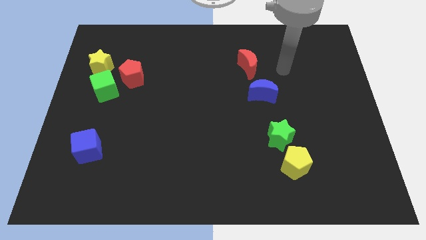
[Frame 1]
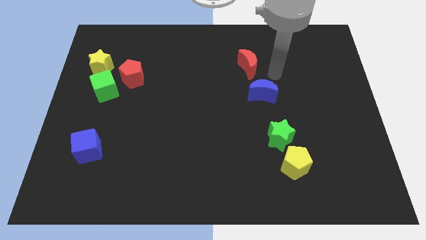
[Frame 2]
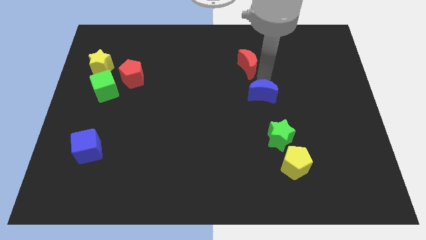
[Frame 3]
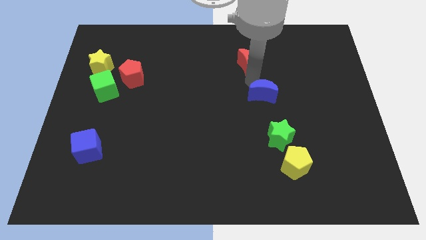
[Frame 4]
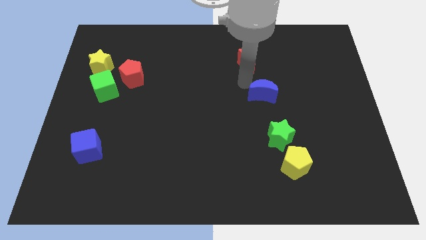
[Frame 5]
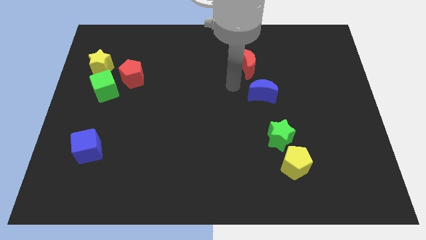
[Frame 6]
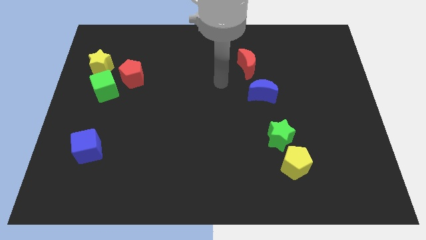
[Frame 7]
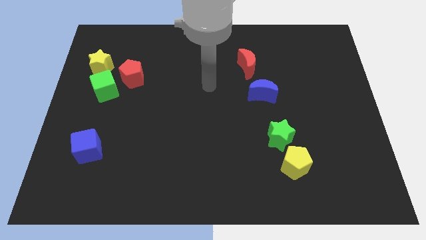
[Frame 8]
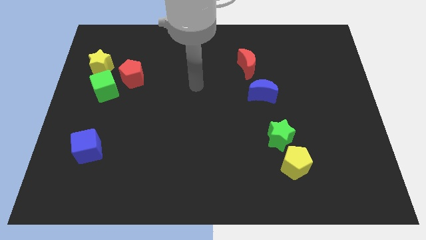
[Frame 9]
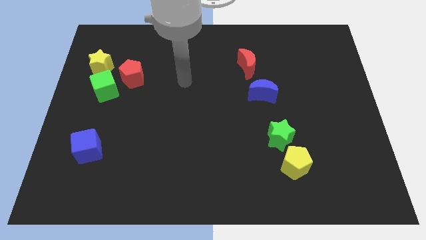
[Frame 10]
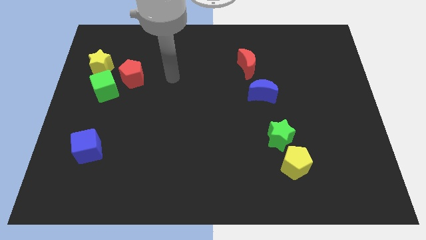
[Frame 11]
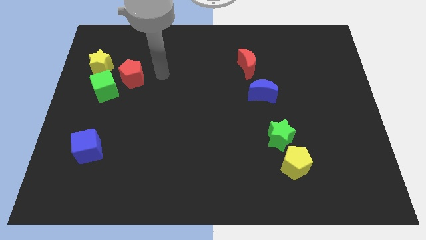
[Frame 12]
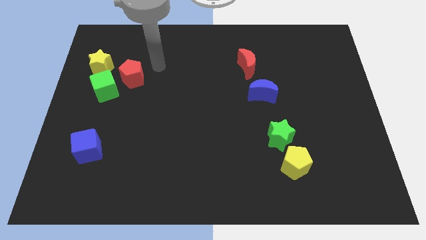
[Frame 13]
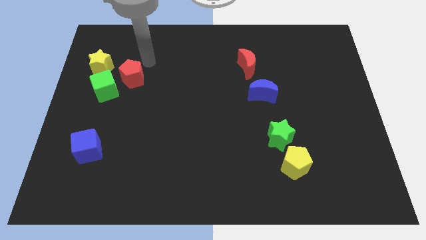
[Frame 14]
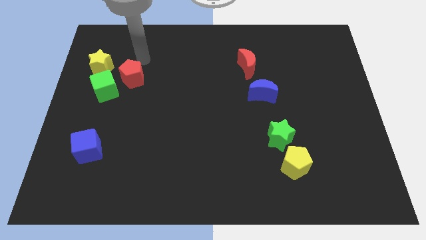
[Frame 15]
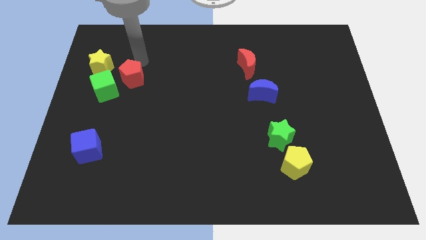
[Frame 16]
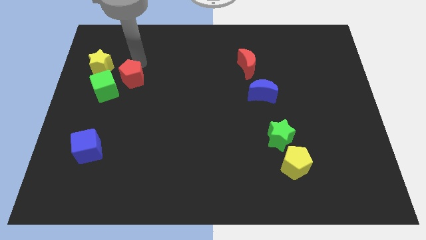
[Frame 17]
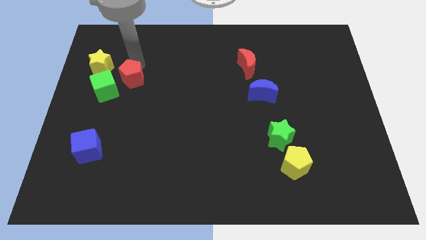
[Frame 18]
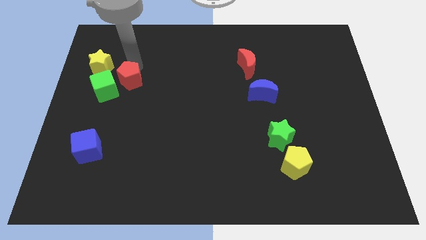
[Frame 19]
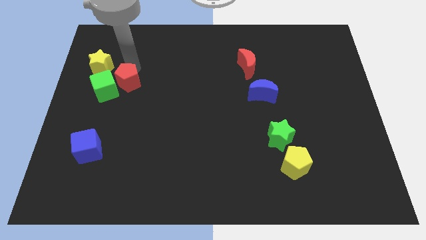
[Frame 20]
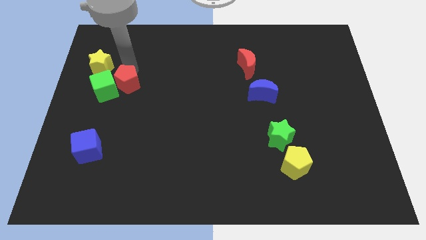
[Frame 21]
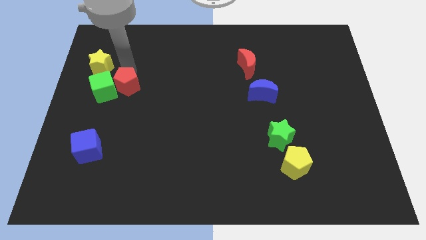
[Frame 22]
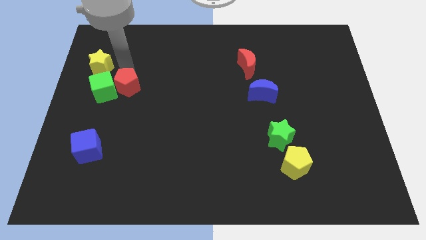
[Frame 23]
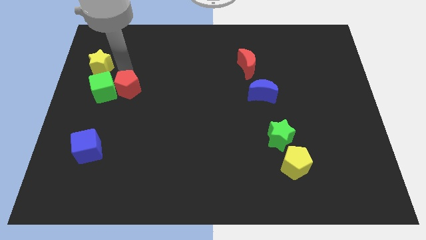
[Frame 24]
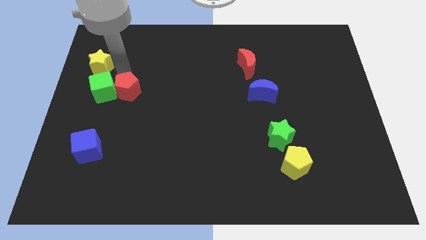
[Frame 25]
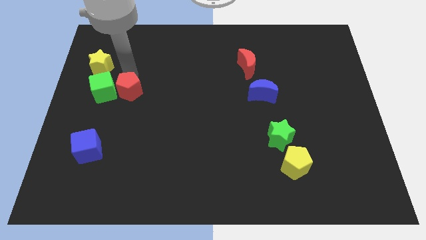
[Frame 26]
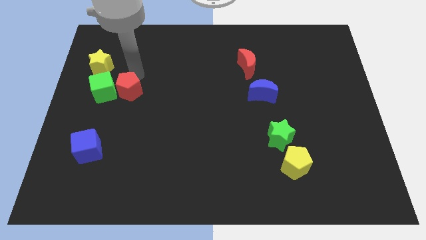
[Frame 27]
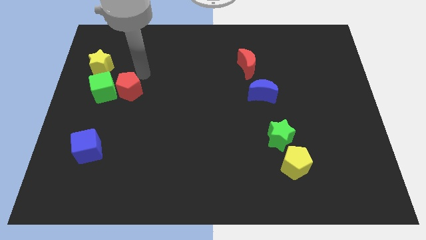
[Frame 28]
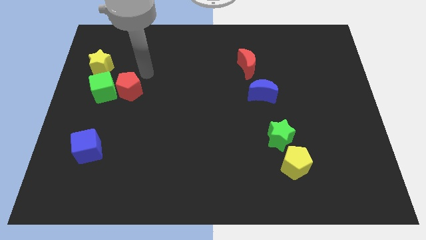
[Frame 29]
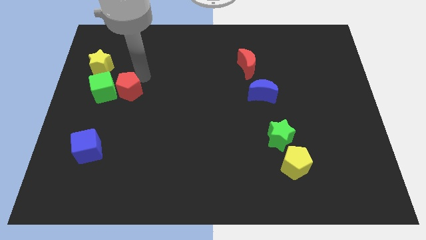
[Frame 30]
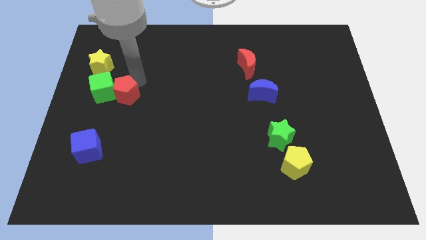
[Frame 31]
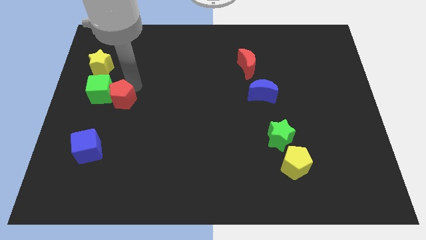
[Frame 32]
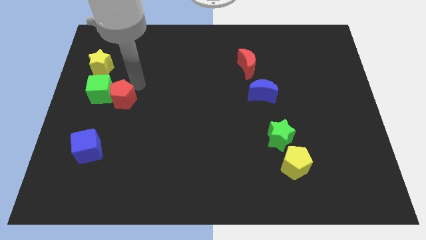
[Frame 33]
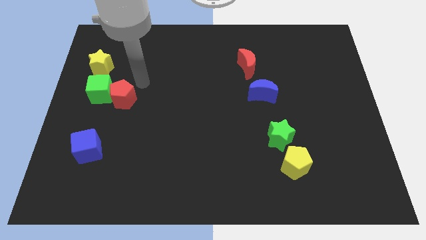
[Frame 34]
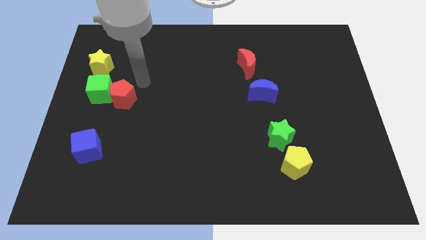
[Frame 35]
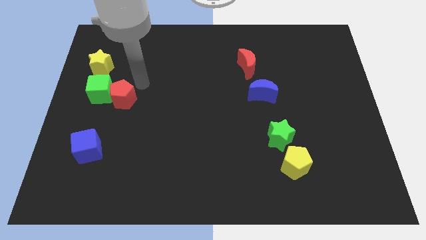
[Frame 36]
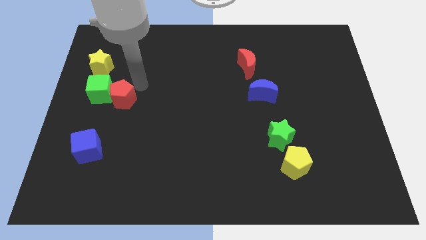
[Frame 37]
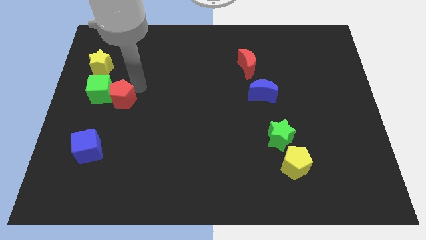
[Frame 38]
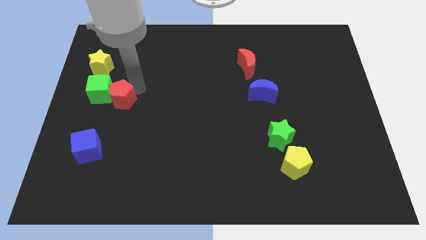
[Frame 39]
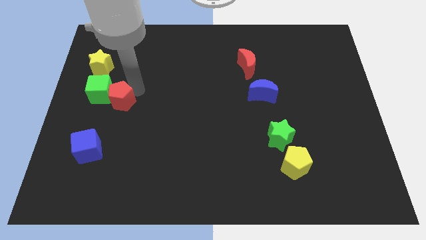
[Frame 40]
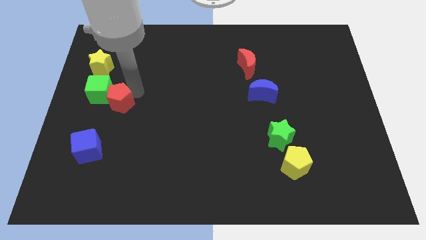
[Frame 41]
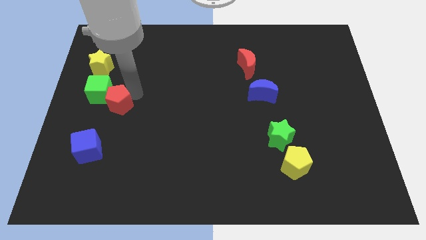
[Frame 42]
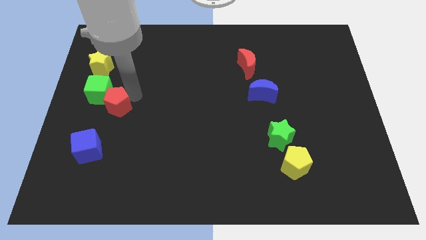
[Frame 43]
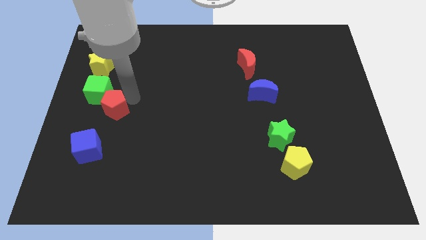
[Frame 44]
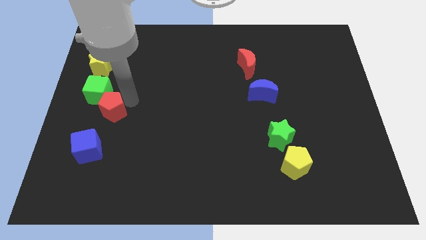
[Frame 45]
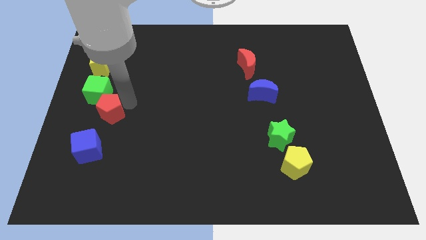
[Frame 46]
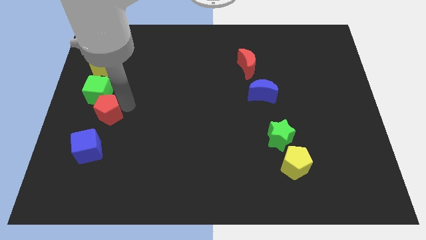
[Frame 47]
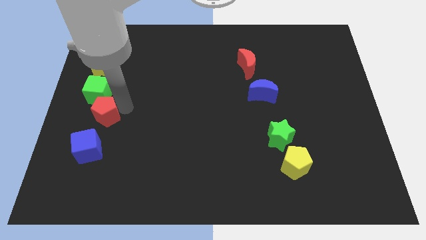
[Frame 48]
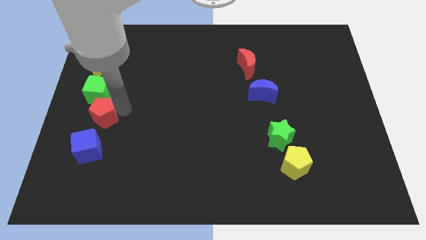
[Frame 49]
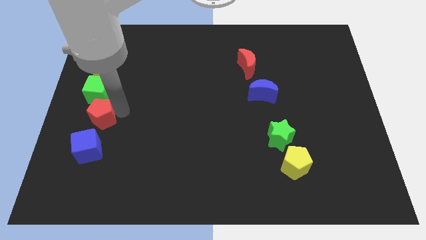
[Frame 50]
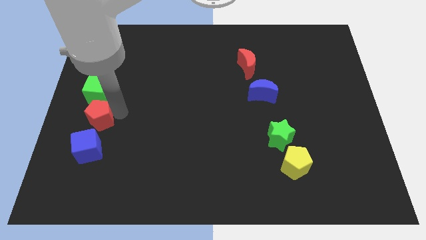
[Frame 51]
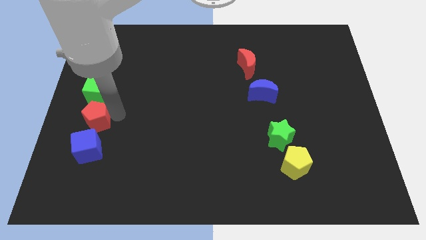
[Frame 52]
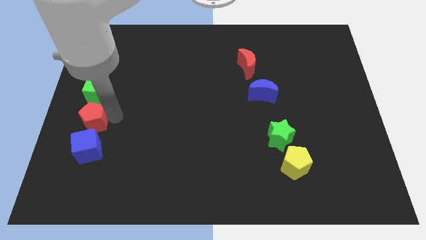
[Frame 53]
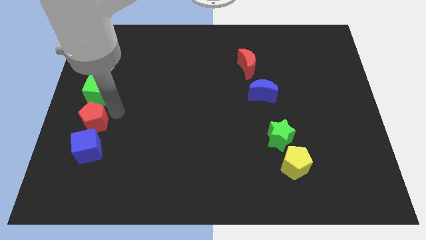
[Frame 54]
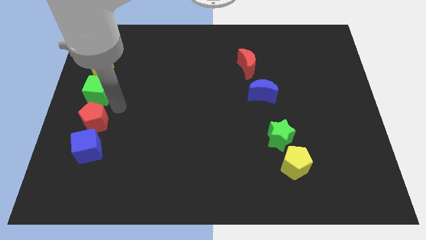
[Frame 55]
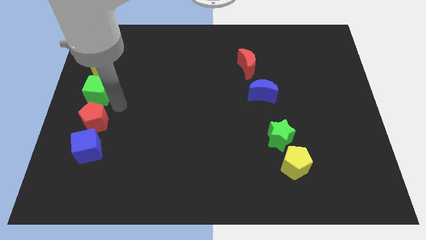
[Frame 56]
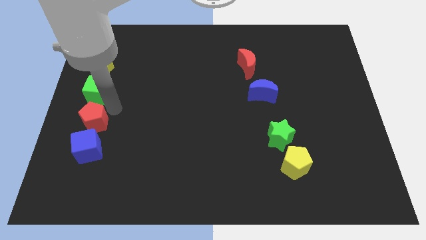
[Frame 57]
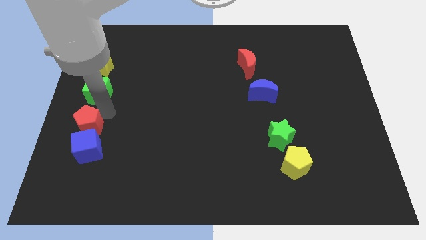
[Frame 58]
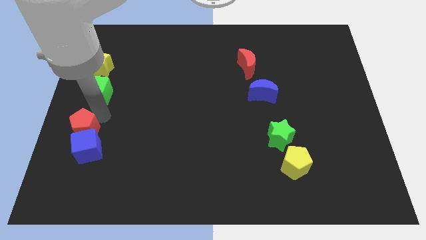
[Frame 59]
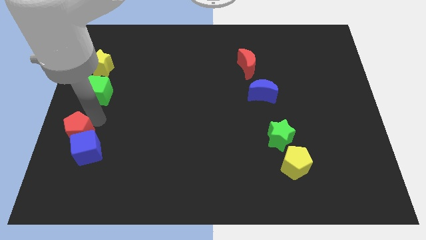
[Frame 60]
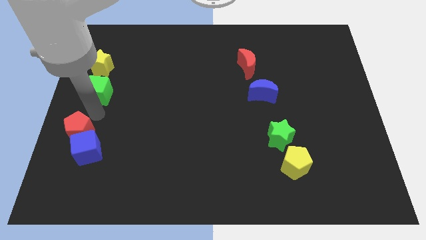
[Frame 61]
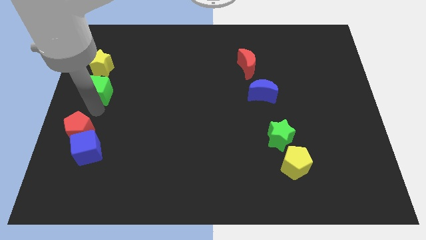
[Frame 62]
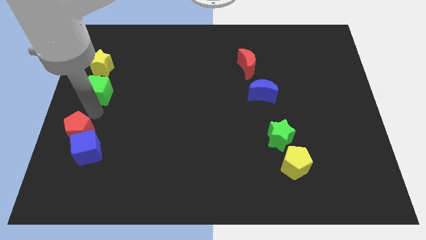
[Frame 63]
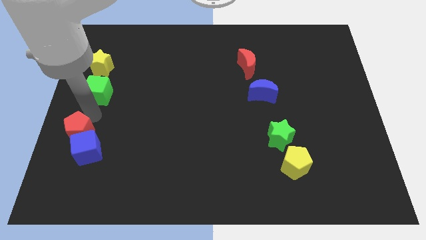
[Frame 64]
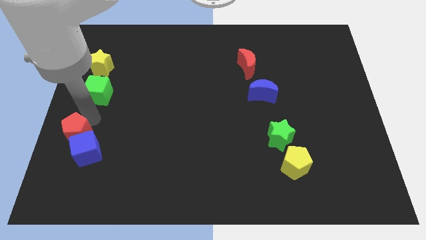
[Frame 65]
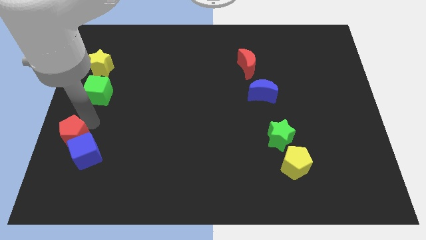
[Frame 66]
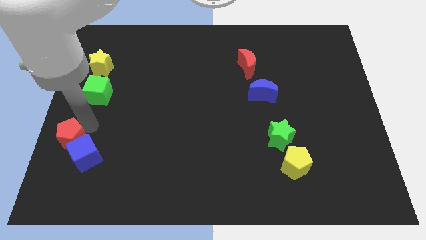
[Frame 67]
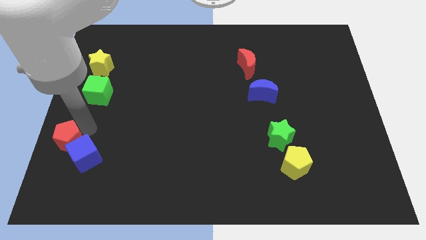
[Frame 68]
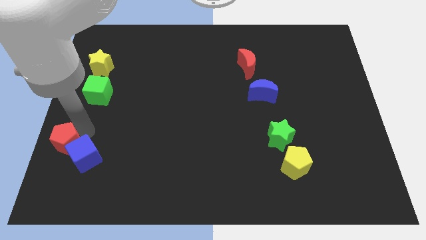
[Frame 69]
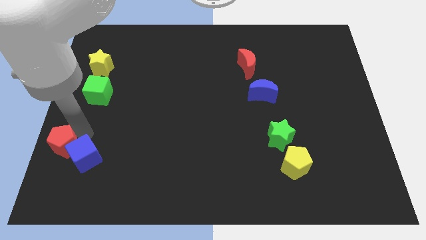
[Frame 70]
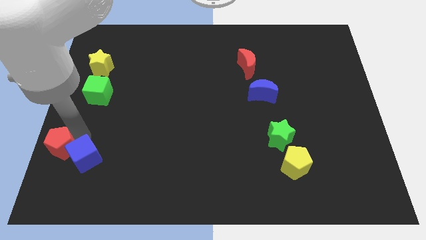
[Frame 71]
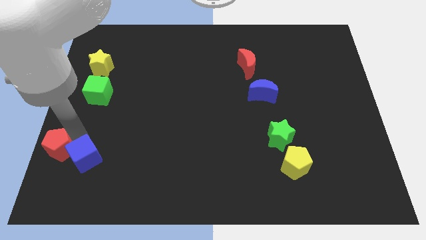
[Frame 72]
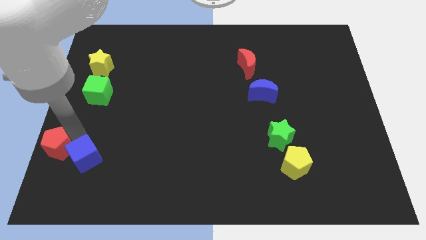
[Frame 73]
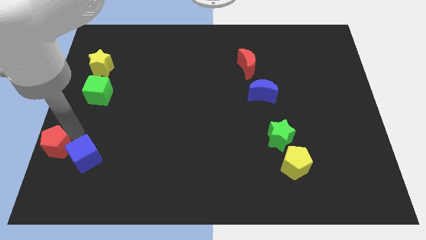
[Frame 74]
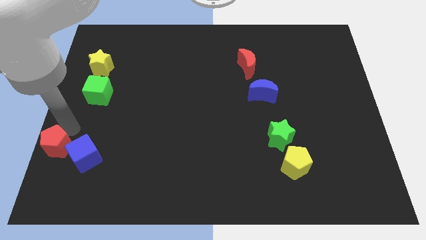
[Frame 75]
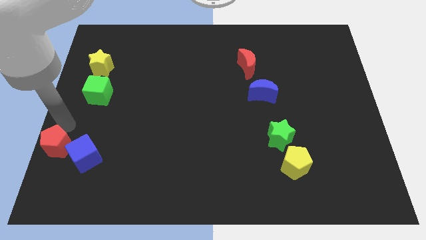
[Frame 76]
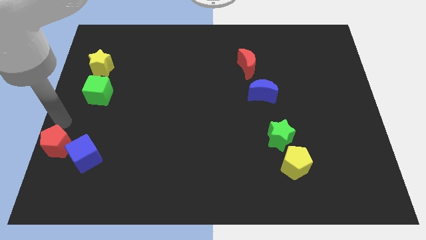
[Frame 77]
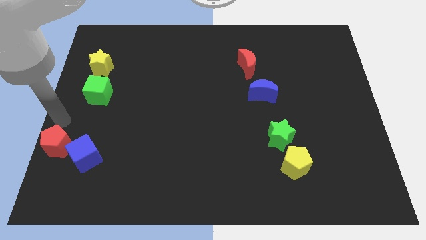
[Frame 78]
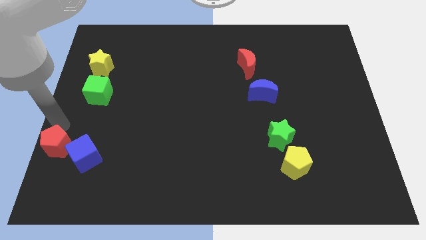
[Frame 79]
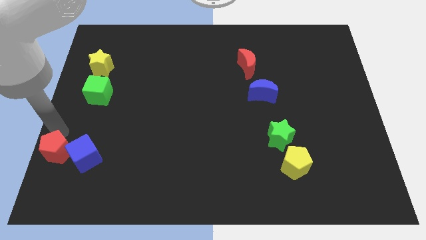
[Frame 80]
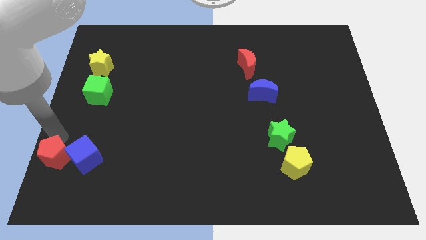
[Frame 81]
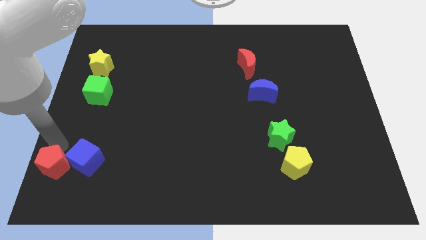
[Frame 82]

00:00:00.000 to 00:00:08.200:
push the red pentagon to the bottom left
